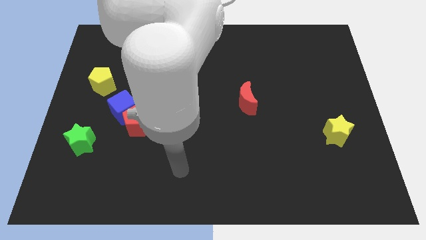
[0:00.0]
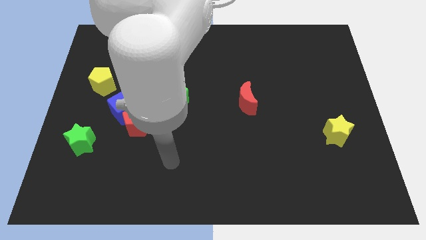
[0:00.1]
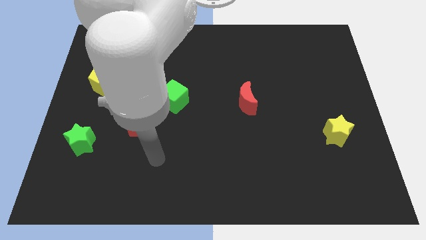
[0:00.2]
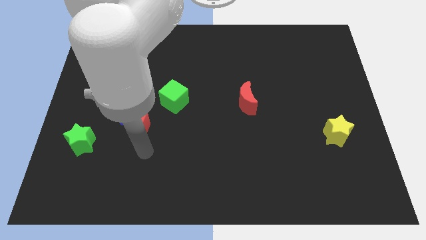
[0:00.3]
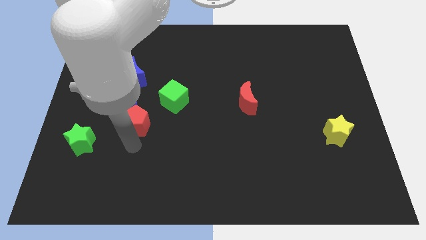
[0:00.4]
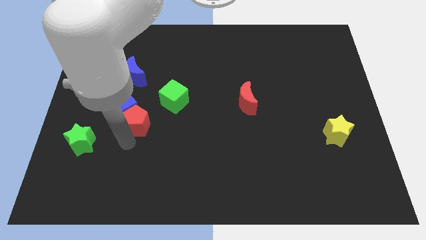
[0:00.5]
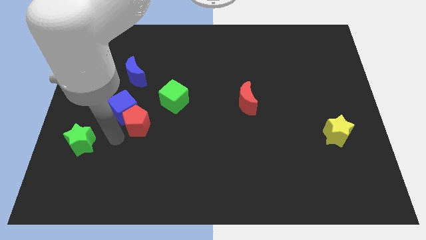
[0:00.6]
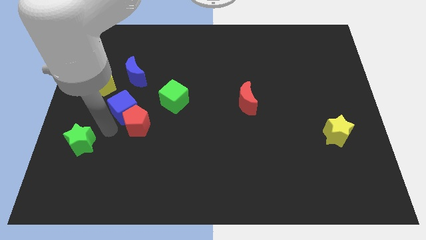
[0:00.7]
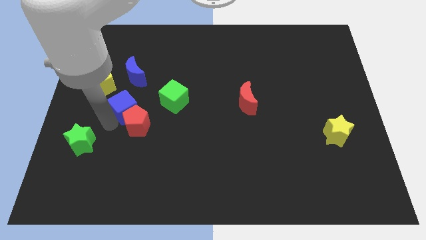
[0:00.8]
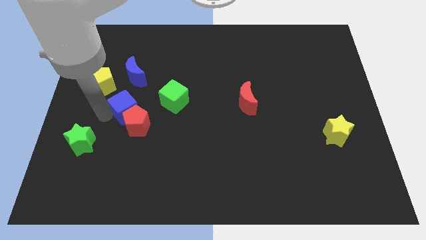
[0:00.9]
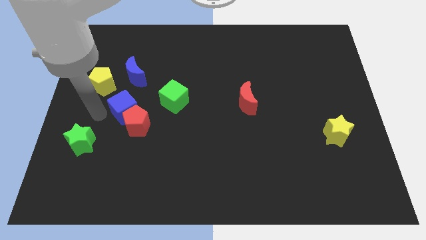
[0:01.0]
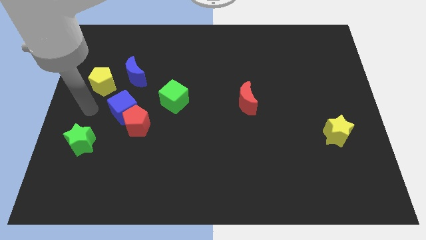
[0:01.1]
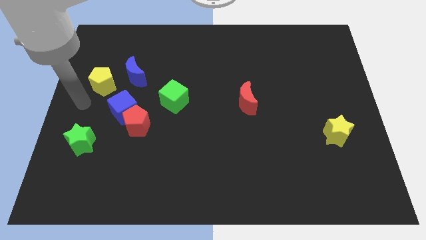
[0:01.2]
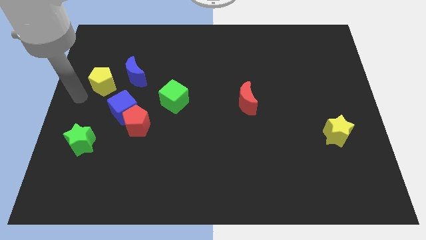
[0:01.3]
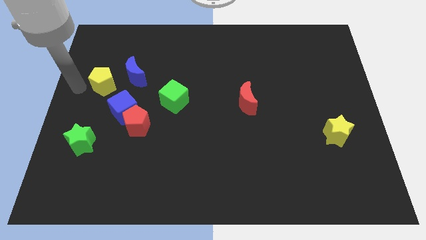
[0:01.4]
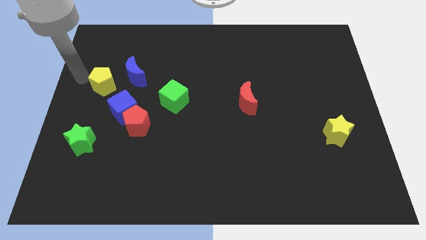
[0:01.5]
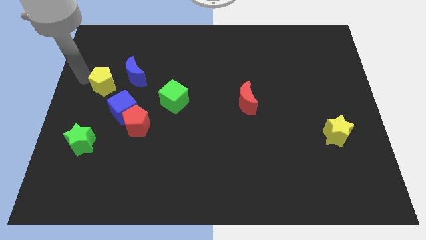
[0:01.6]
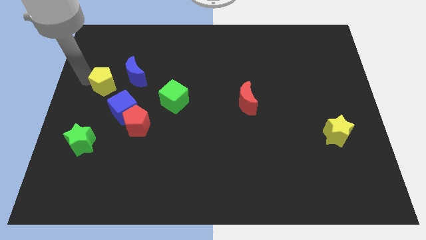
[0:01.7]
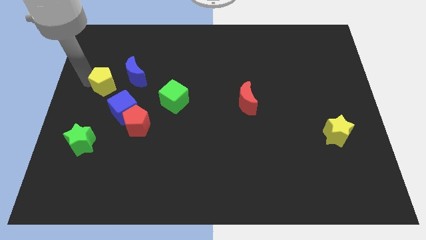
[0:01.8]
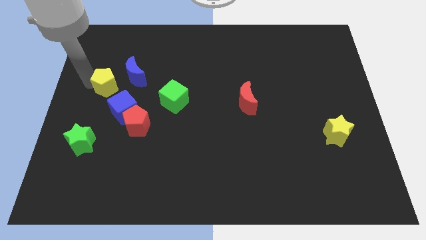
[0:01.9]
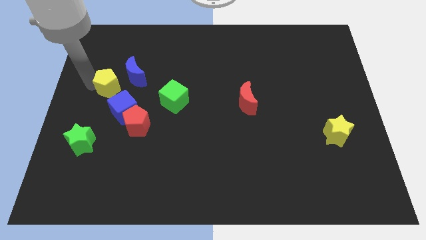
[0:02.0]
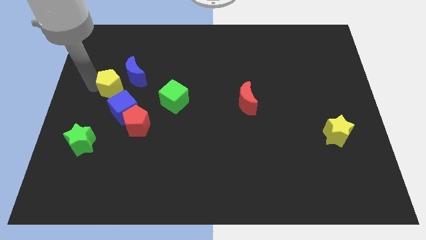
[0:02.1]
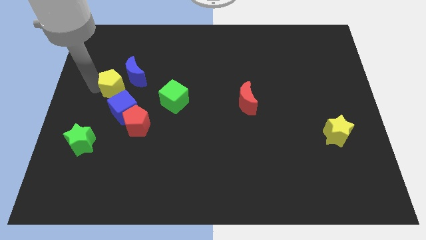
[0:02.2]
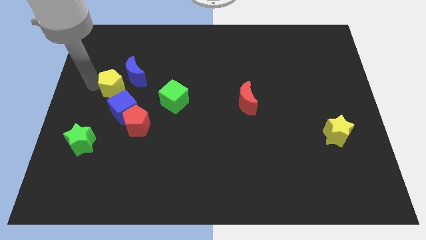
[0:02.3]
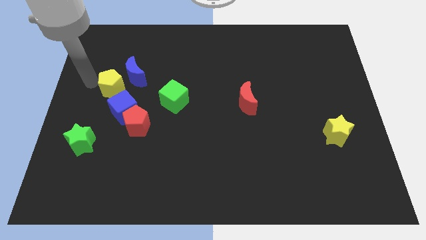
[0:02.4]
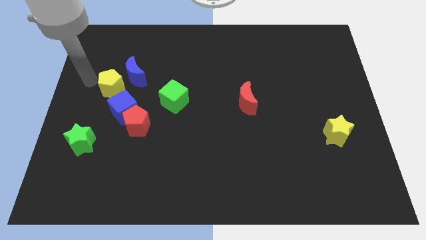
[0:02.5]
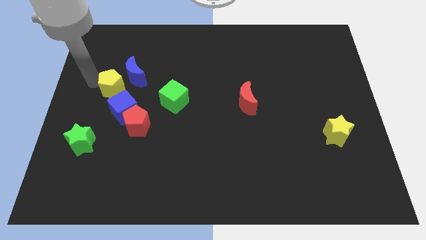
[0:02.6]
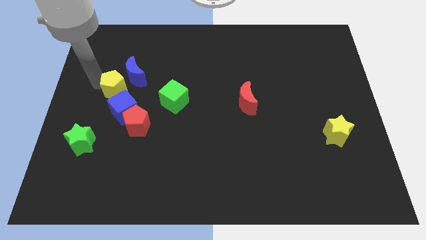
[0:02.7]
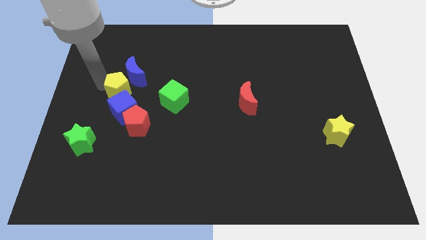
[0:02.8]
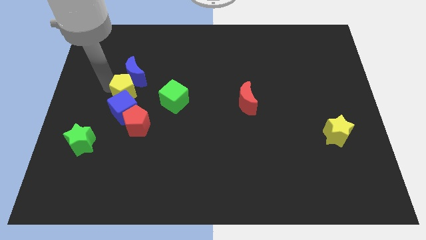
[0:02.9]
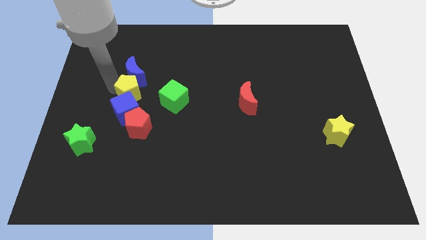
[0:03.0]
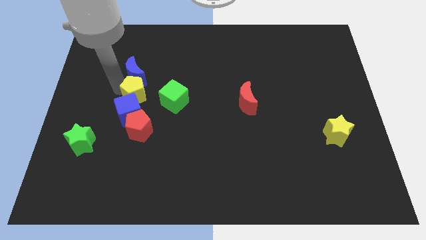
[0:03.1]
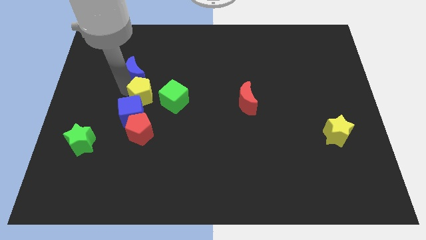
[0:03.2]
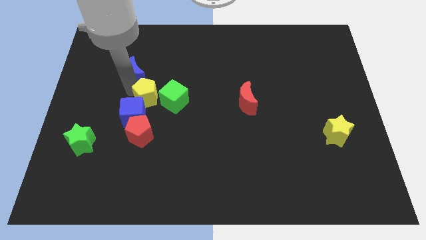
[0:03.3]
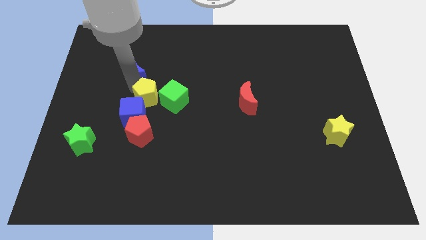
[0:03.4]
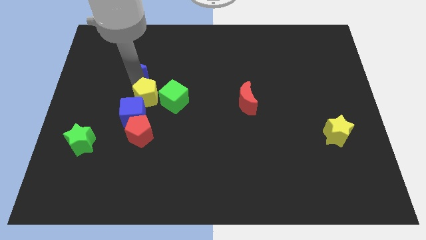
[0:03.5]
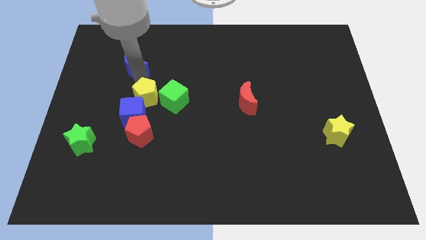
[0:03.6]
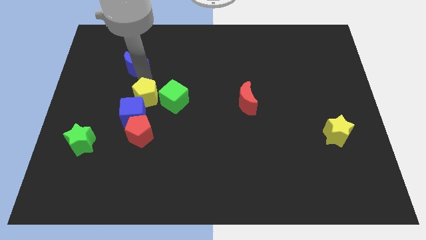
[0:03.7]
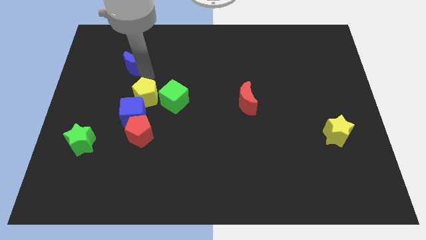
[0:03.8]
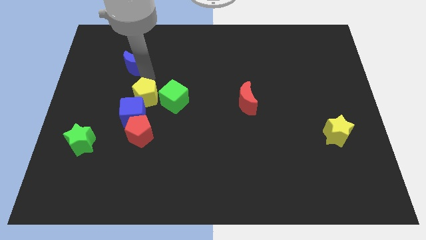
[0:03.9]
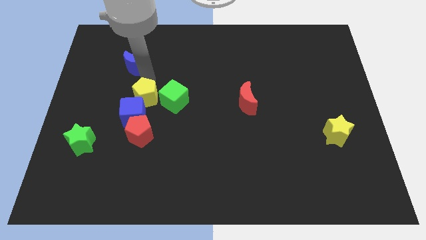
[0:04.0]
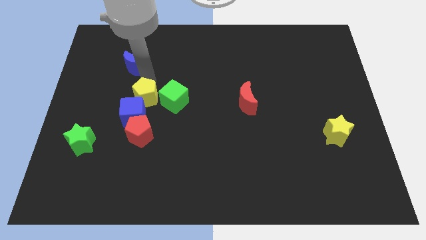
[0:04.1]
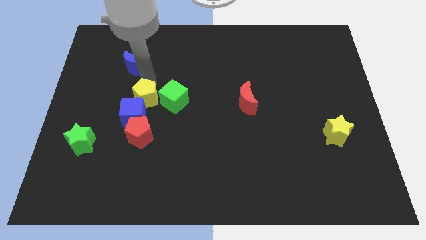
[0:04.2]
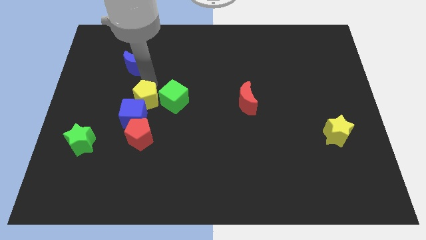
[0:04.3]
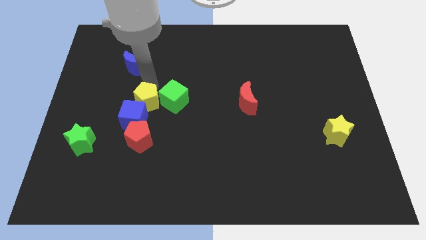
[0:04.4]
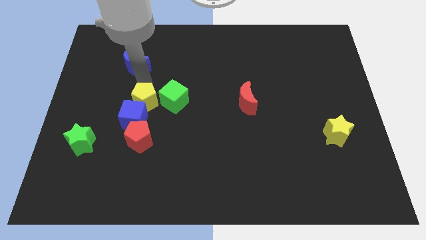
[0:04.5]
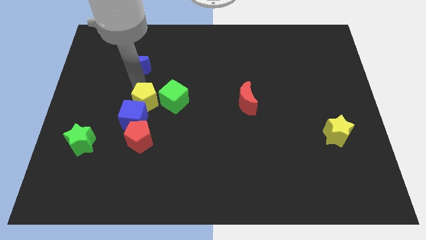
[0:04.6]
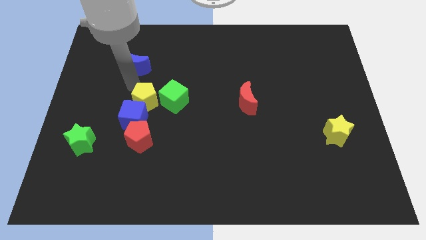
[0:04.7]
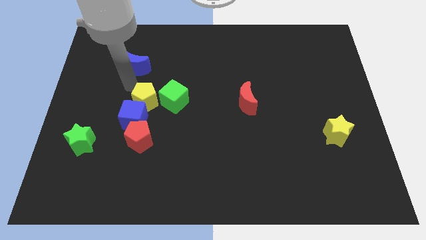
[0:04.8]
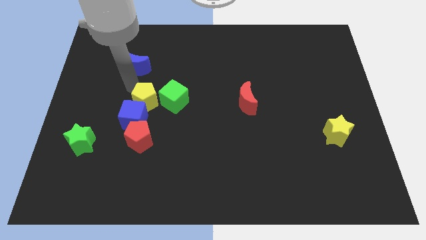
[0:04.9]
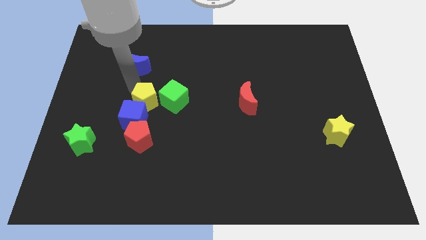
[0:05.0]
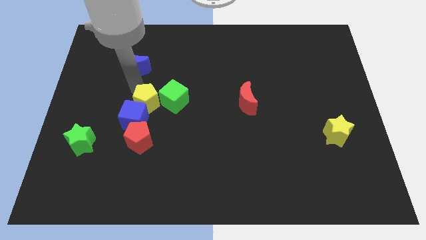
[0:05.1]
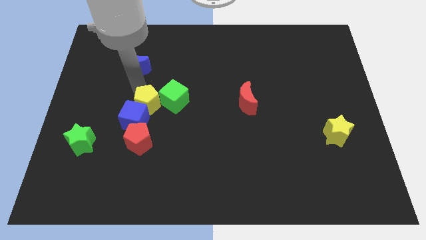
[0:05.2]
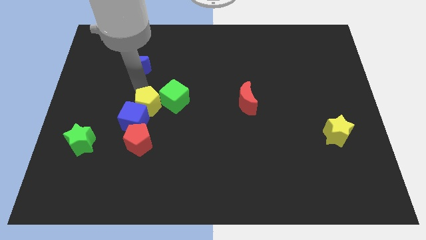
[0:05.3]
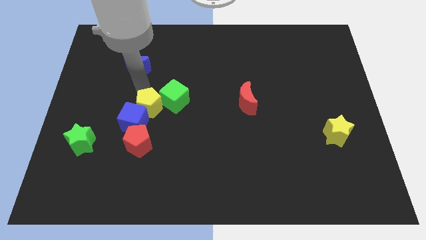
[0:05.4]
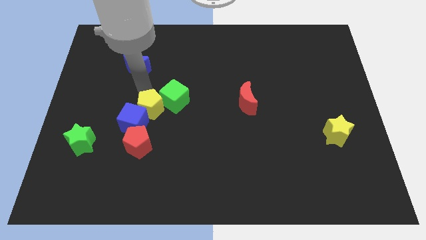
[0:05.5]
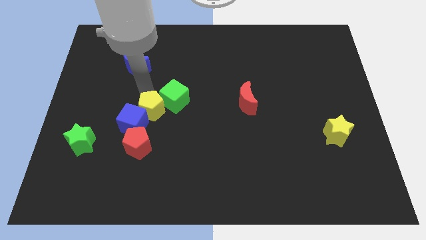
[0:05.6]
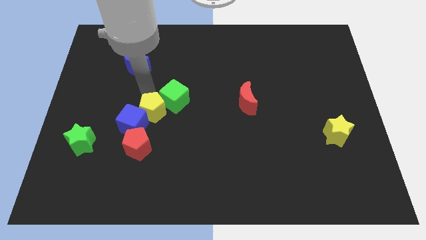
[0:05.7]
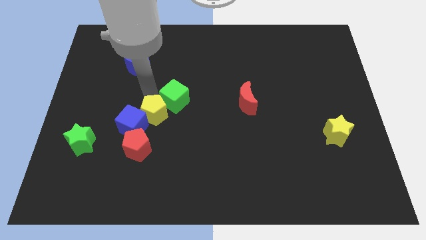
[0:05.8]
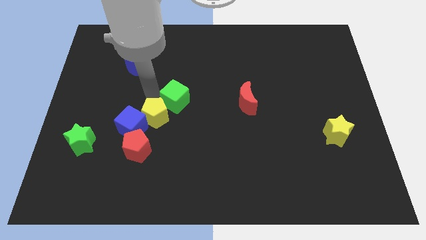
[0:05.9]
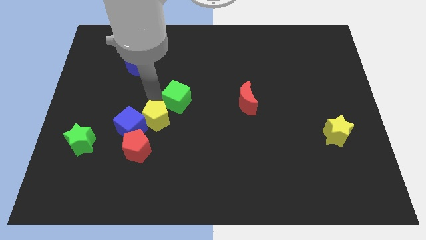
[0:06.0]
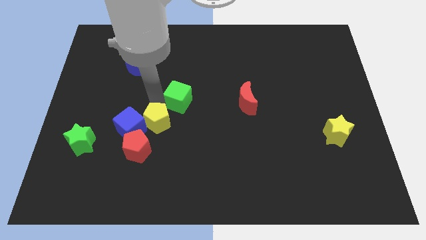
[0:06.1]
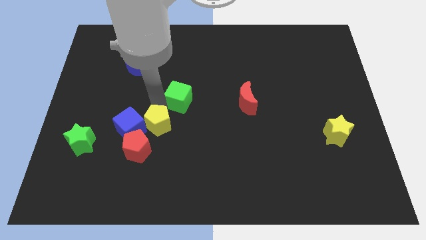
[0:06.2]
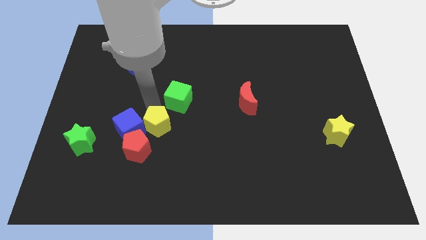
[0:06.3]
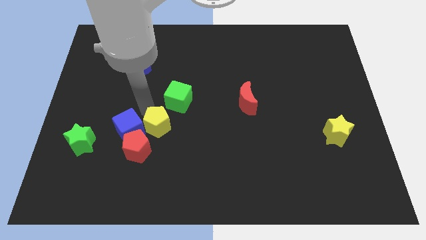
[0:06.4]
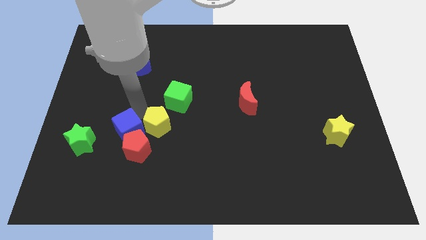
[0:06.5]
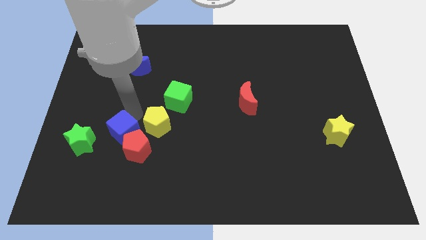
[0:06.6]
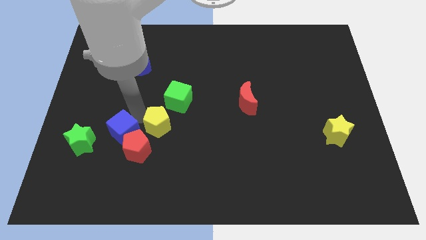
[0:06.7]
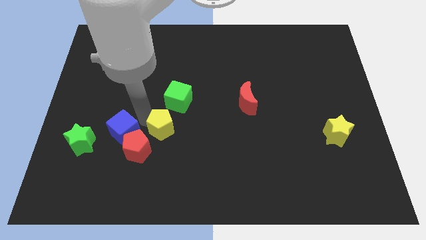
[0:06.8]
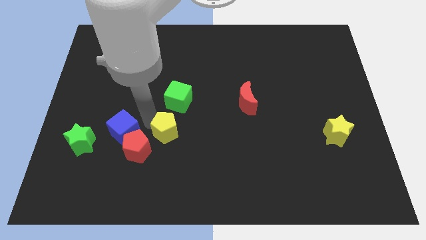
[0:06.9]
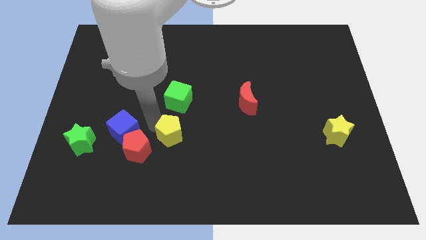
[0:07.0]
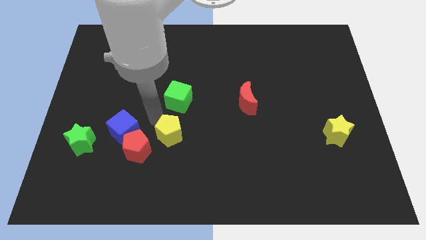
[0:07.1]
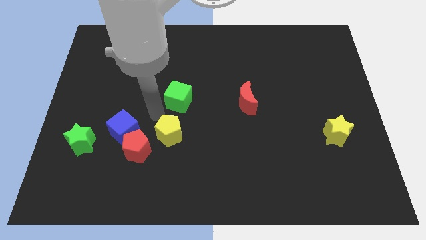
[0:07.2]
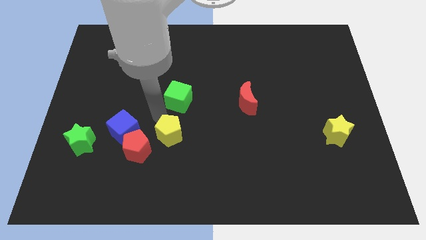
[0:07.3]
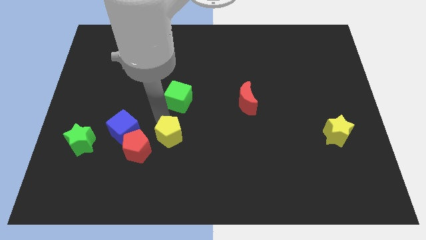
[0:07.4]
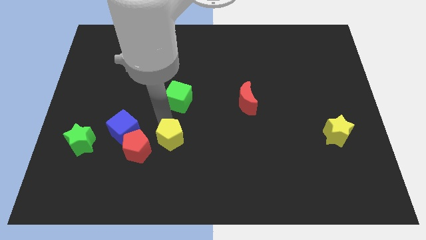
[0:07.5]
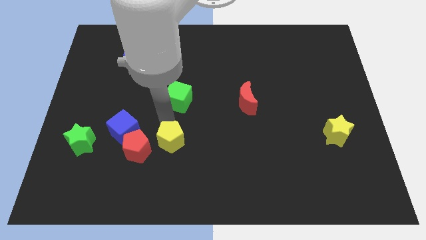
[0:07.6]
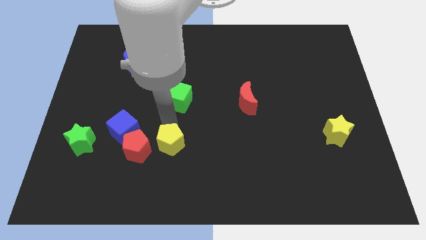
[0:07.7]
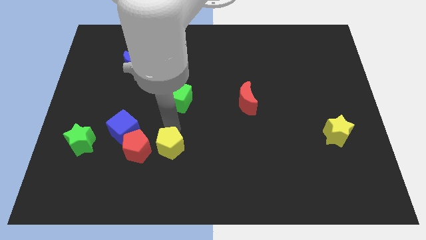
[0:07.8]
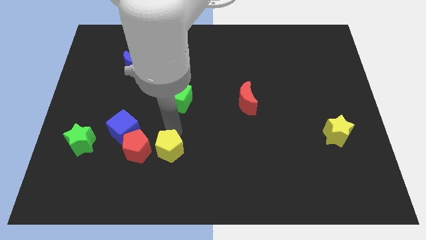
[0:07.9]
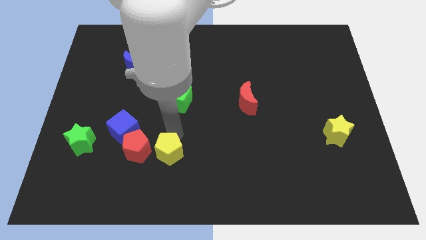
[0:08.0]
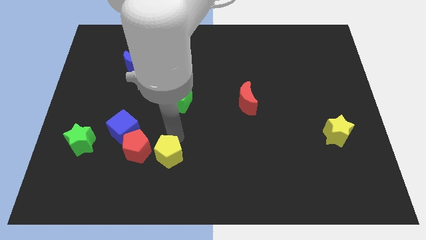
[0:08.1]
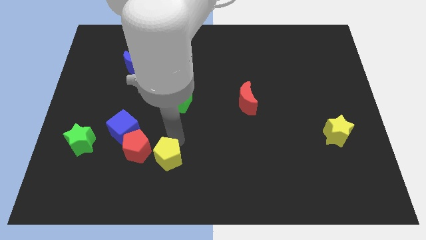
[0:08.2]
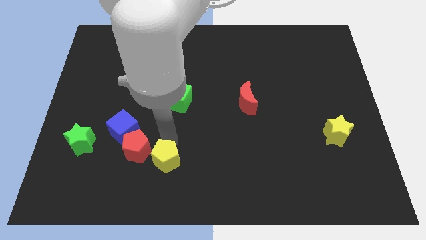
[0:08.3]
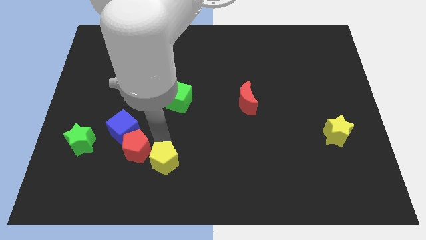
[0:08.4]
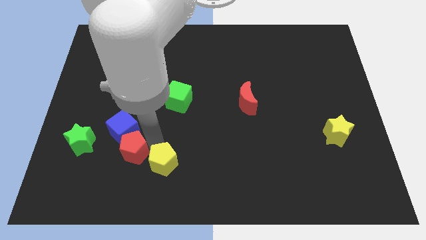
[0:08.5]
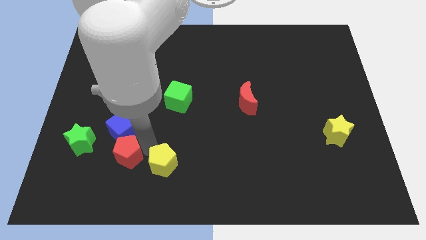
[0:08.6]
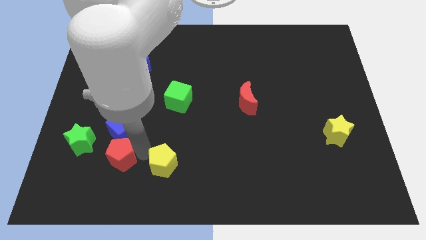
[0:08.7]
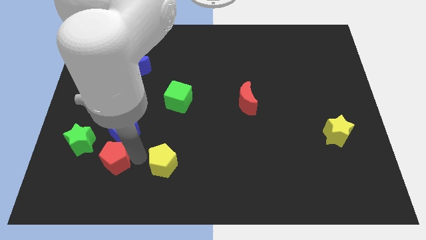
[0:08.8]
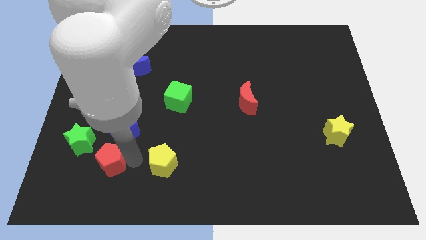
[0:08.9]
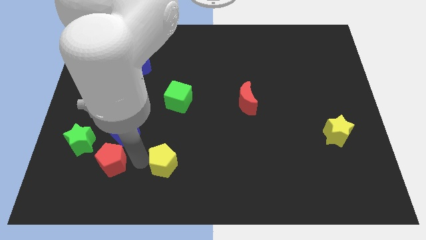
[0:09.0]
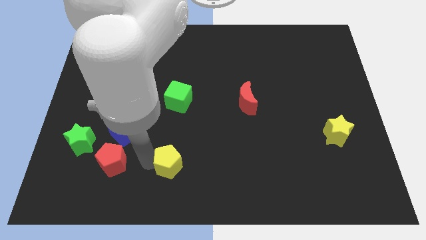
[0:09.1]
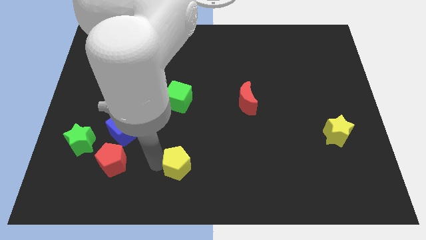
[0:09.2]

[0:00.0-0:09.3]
slide the yellow pentagon to the bottom side
